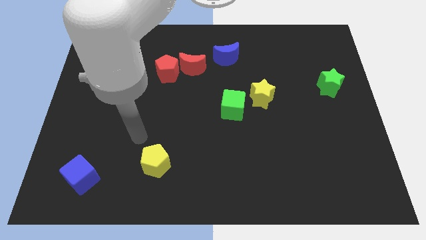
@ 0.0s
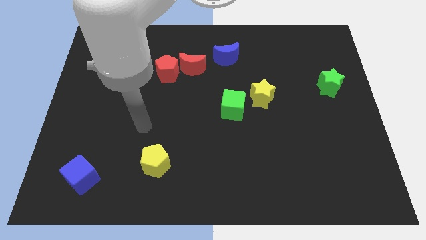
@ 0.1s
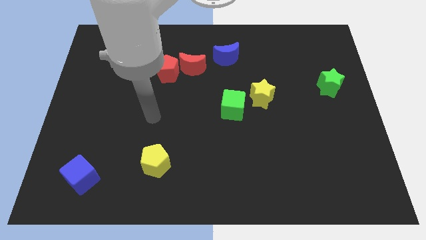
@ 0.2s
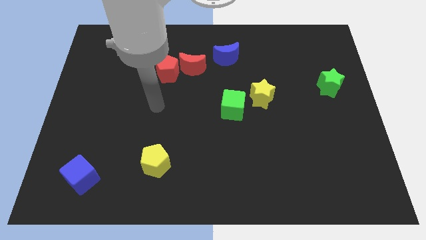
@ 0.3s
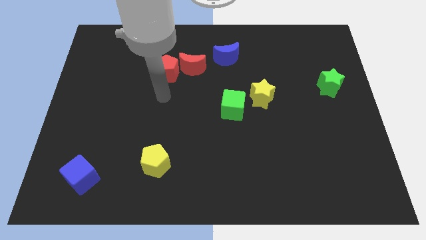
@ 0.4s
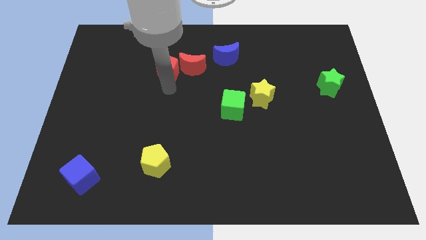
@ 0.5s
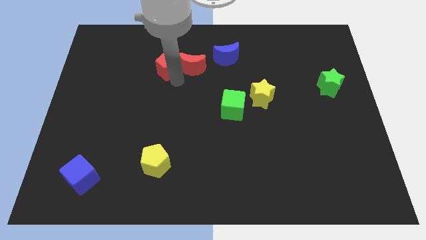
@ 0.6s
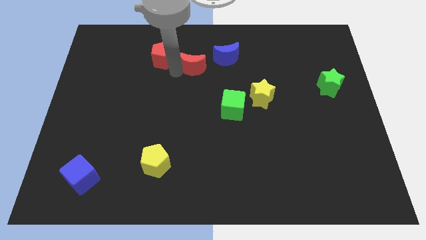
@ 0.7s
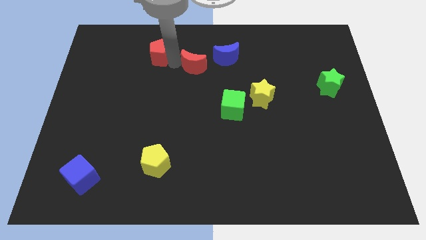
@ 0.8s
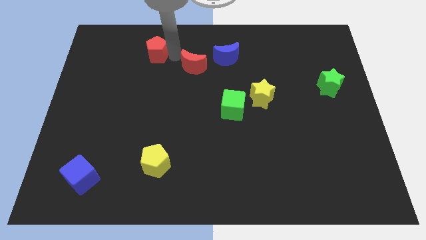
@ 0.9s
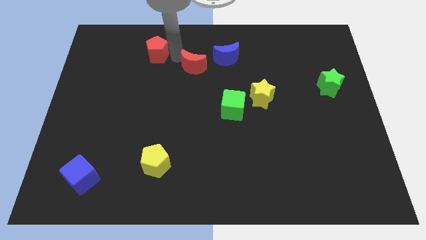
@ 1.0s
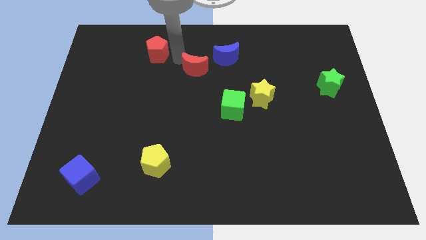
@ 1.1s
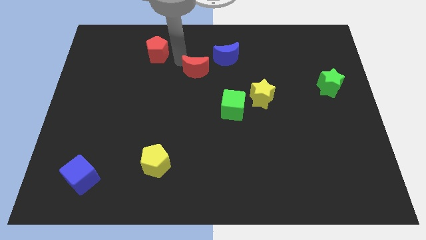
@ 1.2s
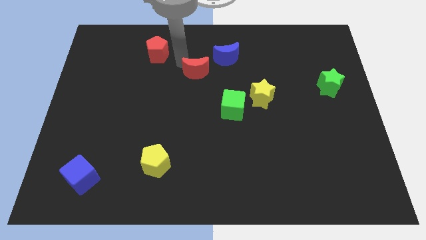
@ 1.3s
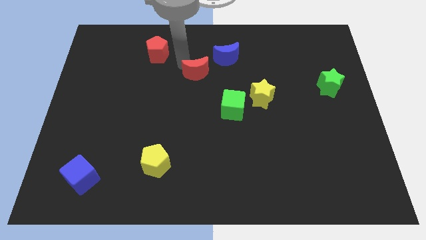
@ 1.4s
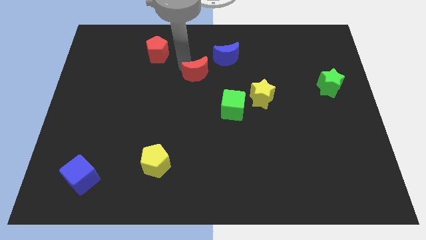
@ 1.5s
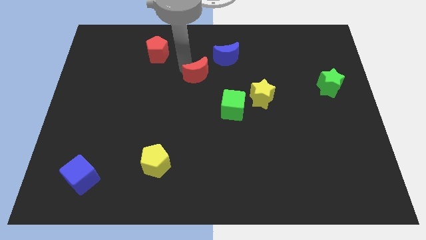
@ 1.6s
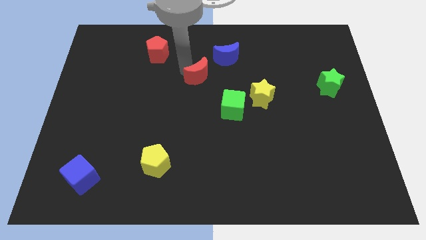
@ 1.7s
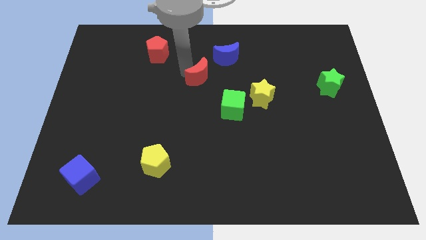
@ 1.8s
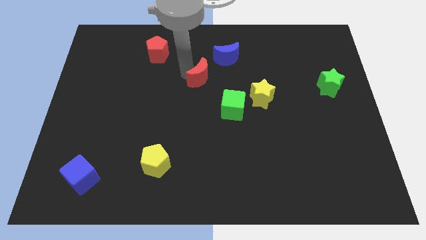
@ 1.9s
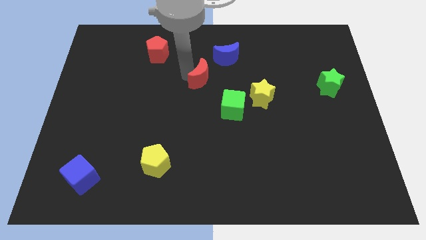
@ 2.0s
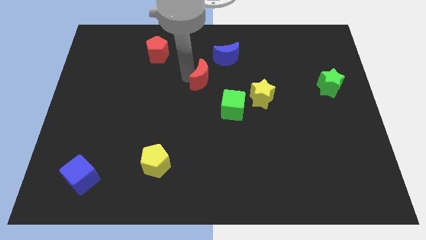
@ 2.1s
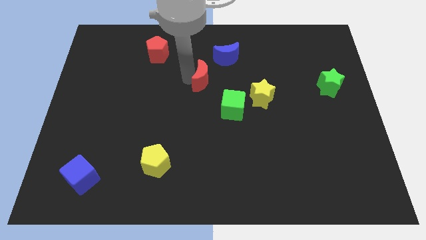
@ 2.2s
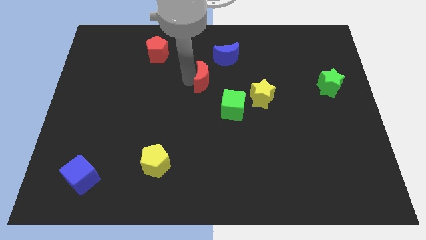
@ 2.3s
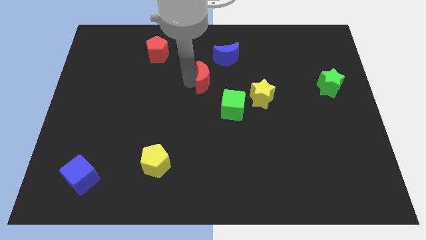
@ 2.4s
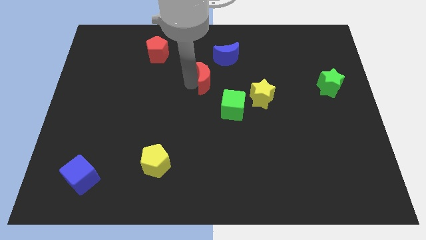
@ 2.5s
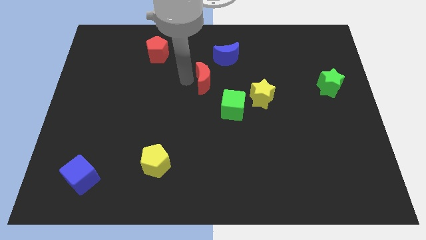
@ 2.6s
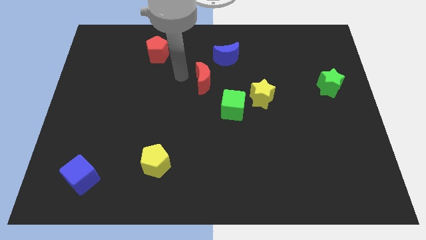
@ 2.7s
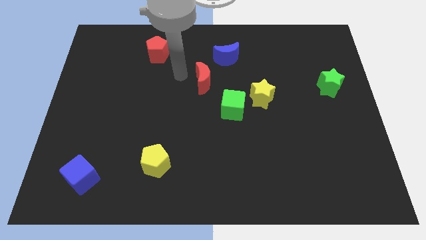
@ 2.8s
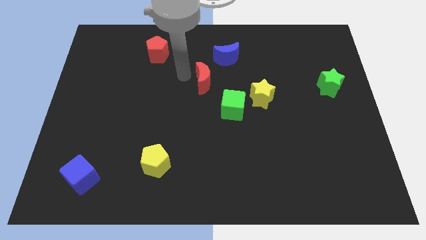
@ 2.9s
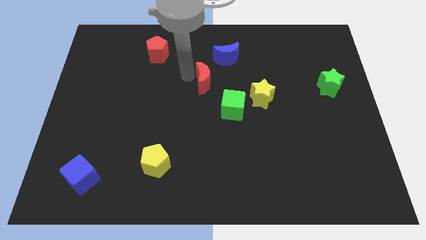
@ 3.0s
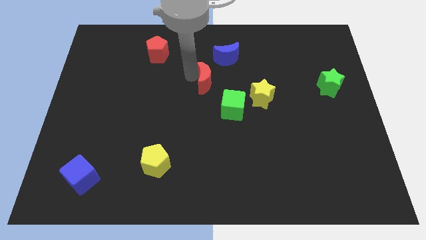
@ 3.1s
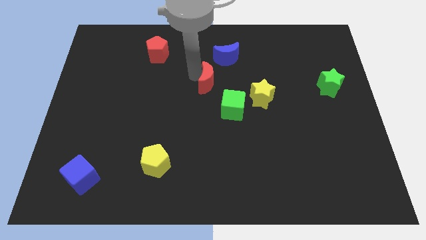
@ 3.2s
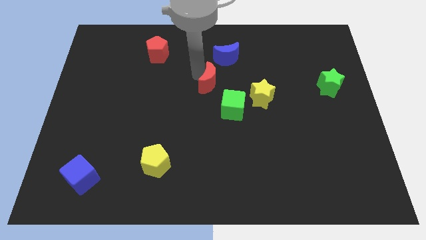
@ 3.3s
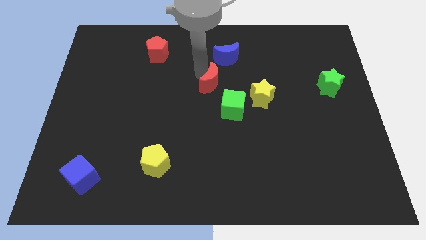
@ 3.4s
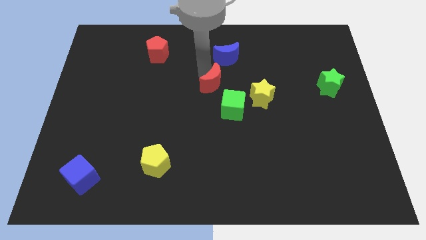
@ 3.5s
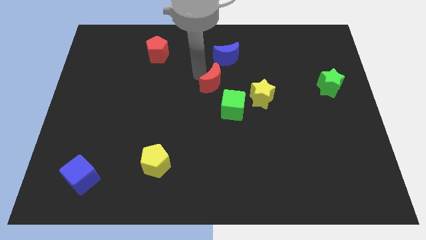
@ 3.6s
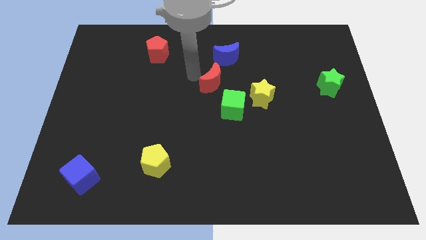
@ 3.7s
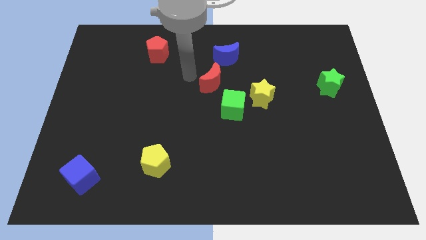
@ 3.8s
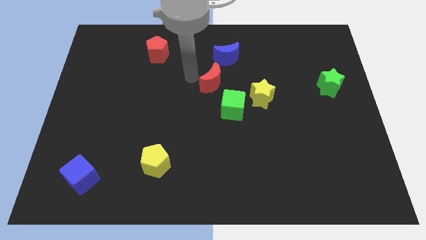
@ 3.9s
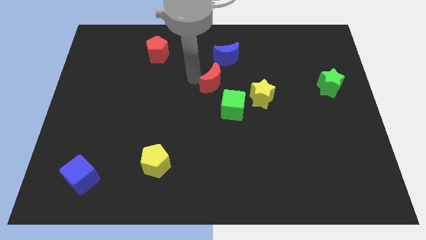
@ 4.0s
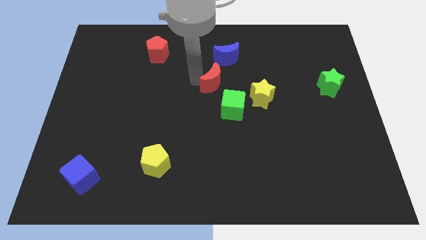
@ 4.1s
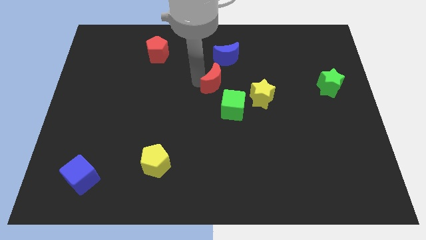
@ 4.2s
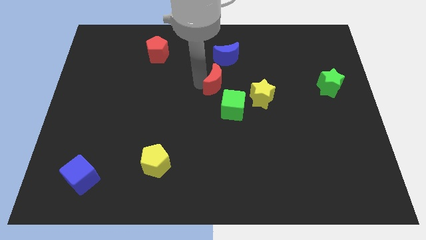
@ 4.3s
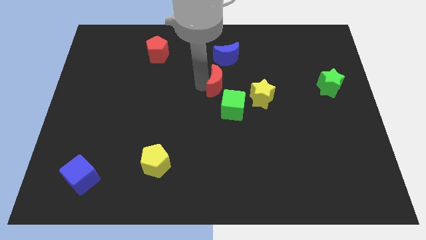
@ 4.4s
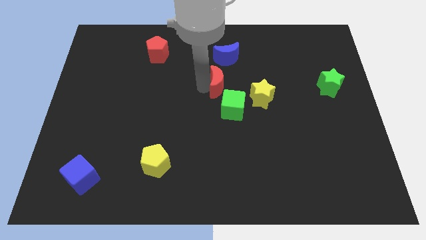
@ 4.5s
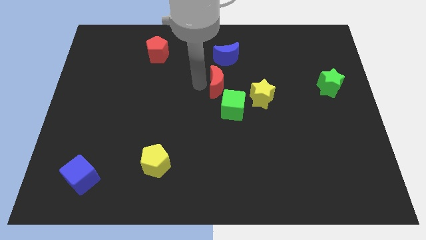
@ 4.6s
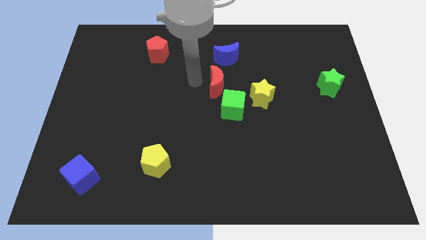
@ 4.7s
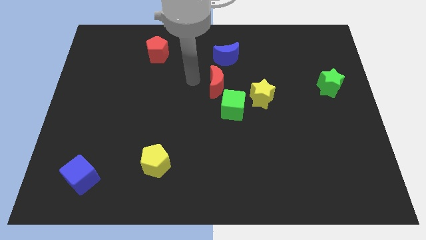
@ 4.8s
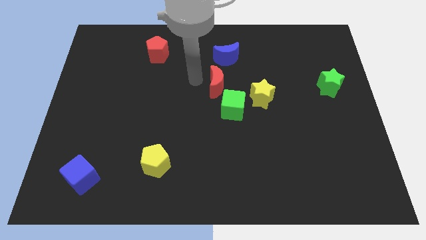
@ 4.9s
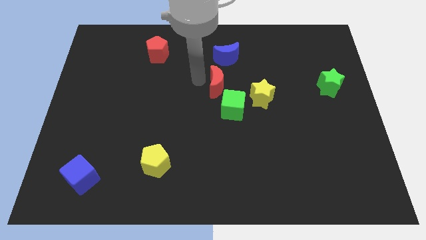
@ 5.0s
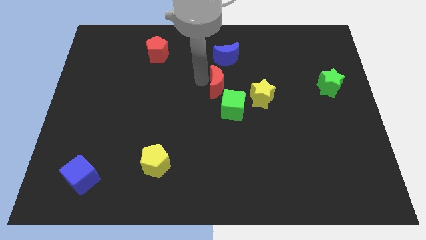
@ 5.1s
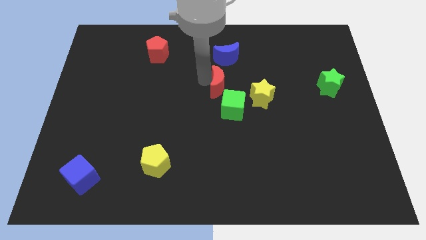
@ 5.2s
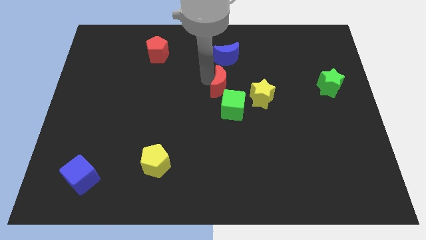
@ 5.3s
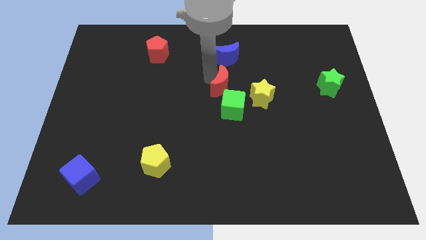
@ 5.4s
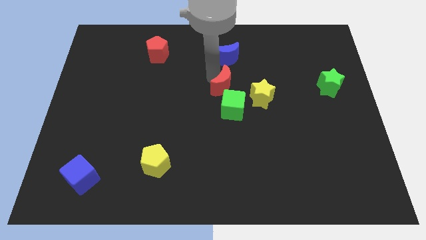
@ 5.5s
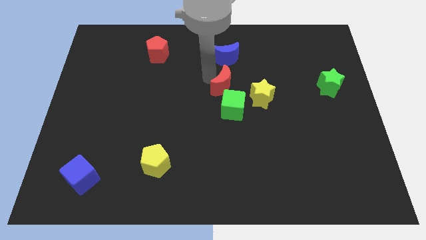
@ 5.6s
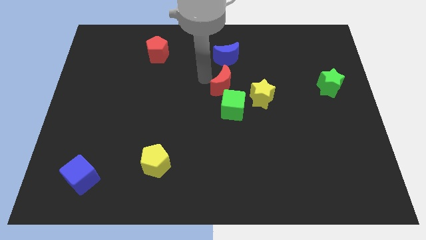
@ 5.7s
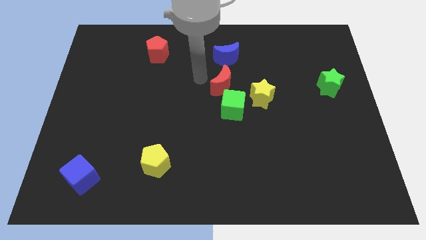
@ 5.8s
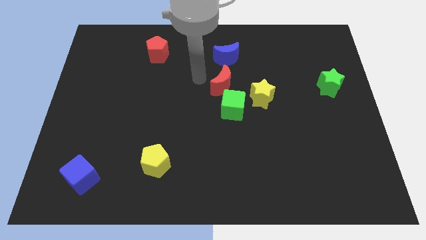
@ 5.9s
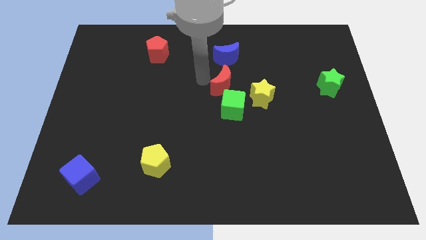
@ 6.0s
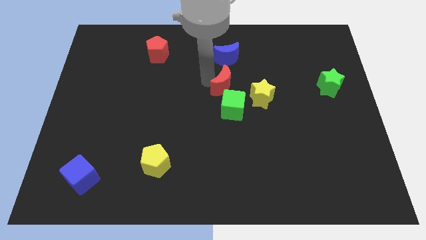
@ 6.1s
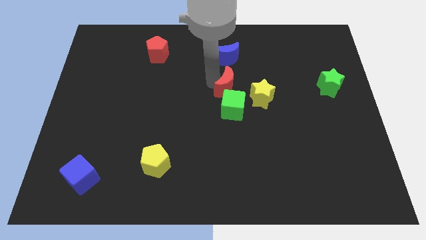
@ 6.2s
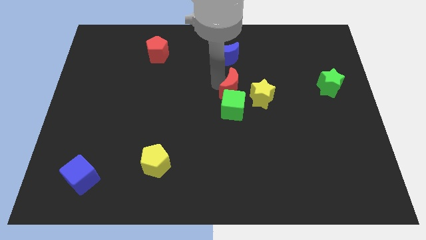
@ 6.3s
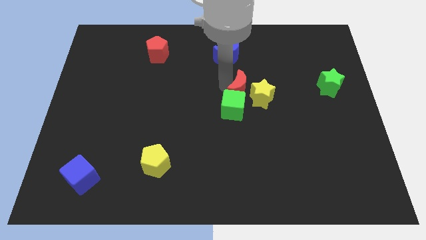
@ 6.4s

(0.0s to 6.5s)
put the red moon close to the yellow star
